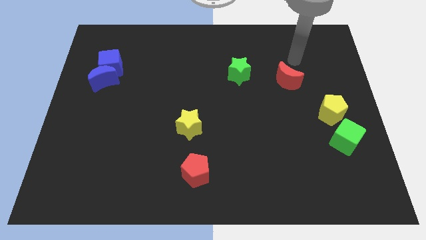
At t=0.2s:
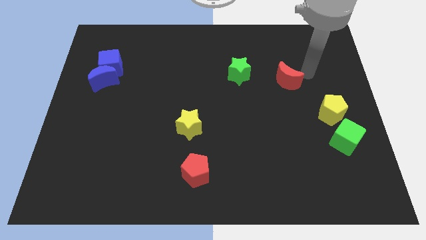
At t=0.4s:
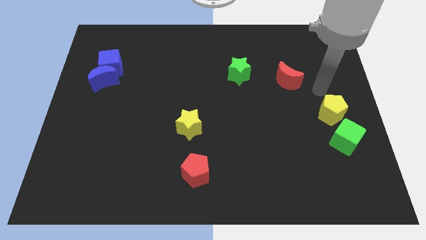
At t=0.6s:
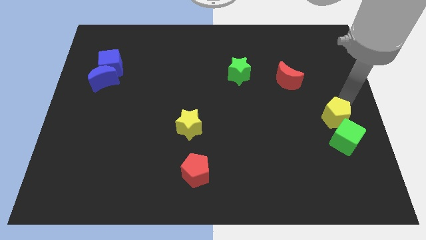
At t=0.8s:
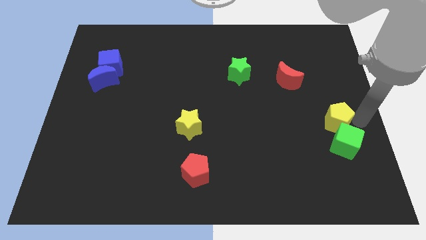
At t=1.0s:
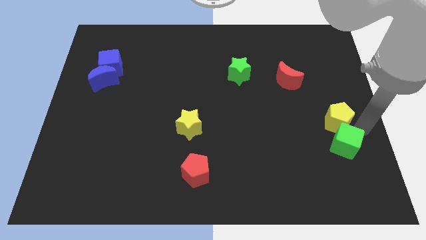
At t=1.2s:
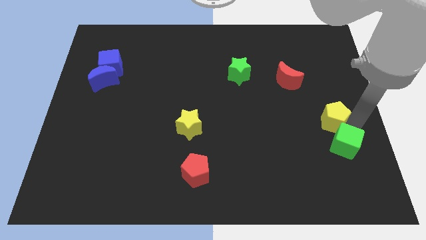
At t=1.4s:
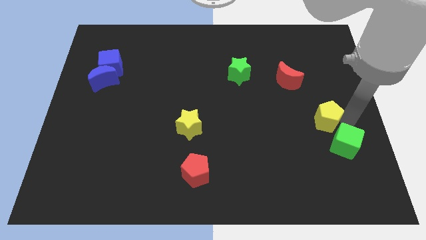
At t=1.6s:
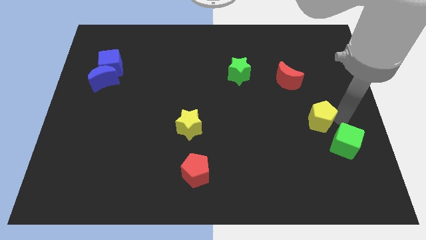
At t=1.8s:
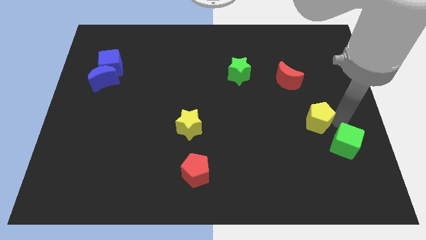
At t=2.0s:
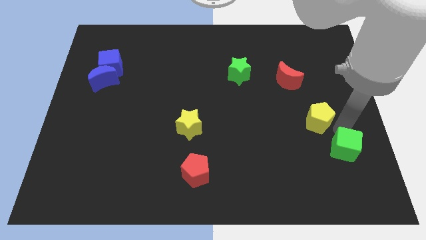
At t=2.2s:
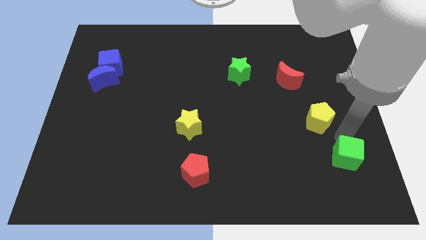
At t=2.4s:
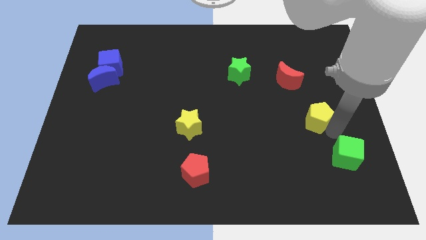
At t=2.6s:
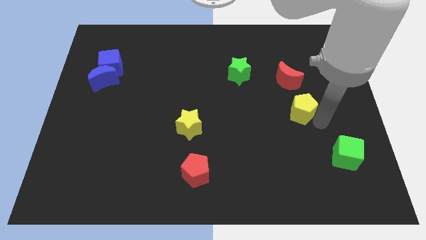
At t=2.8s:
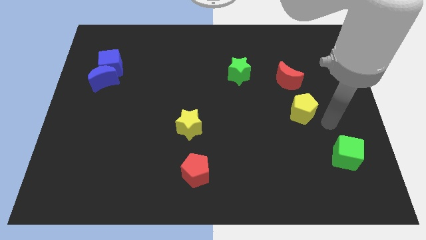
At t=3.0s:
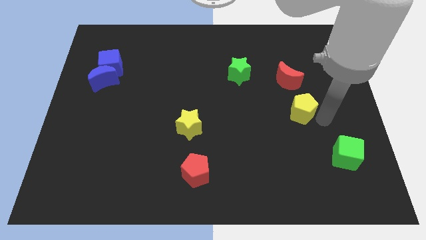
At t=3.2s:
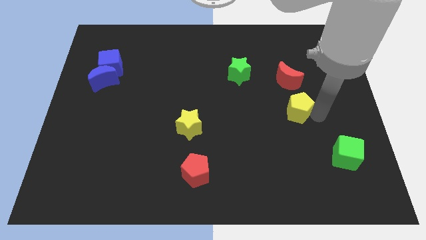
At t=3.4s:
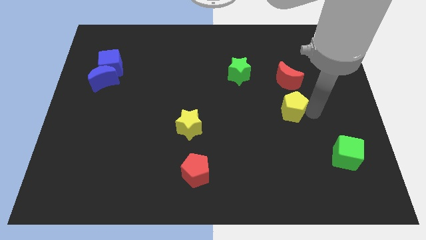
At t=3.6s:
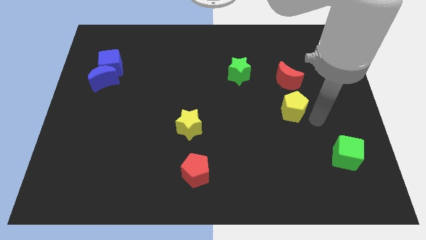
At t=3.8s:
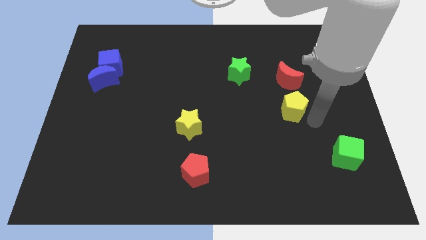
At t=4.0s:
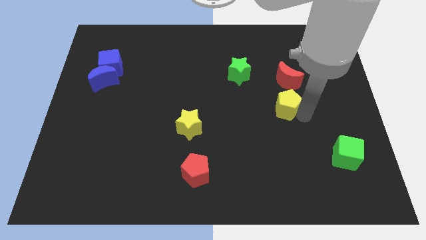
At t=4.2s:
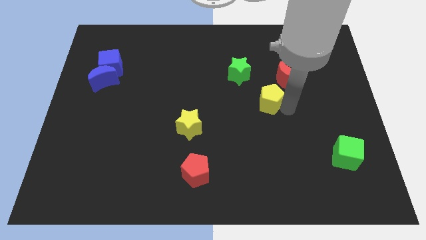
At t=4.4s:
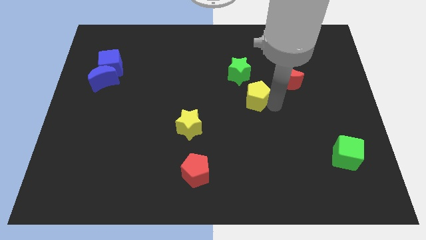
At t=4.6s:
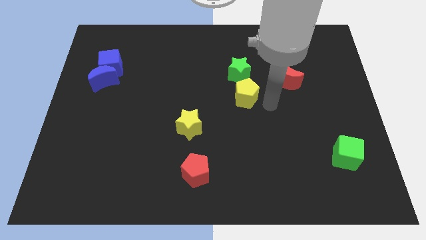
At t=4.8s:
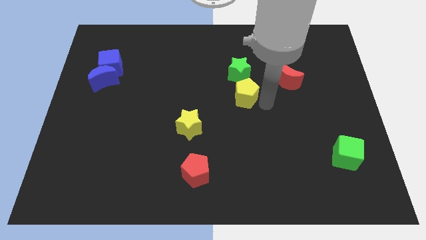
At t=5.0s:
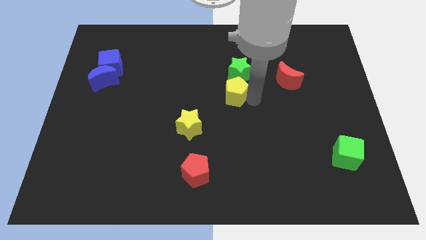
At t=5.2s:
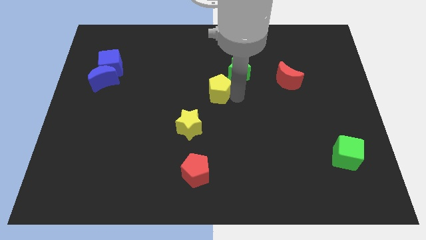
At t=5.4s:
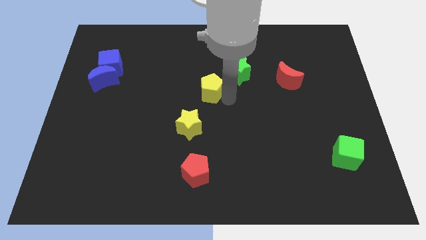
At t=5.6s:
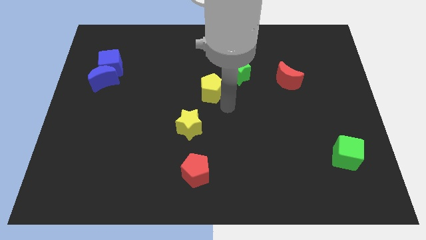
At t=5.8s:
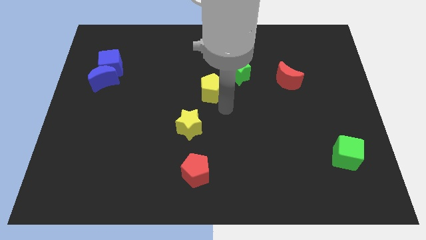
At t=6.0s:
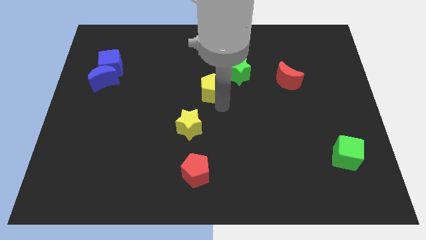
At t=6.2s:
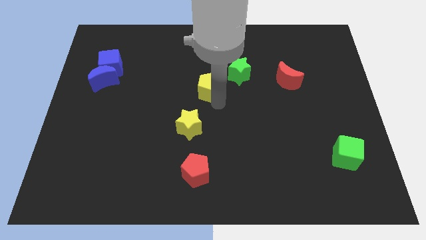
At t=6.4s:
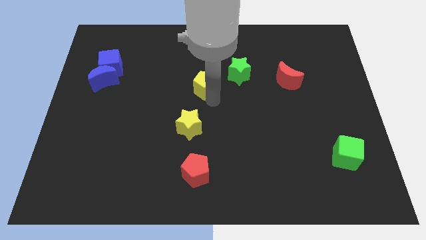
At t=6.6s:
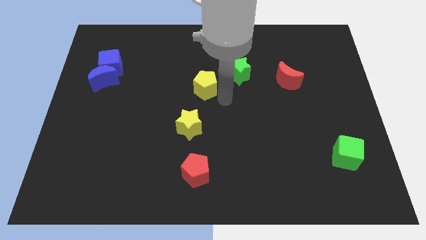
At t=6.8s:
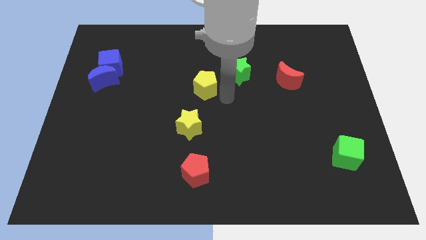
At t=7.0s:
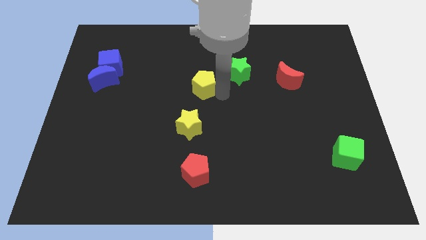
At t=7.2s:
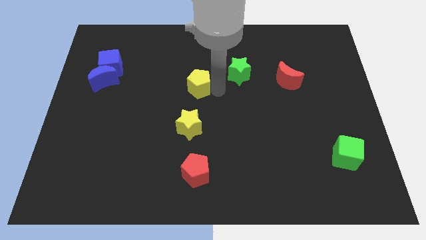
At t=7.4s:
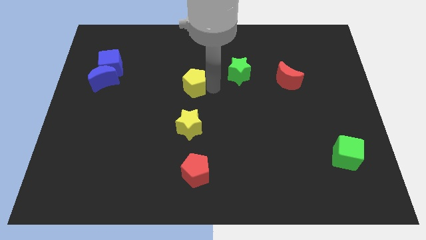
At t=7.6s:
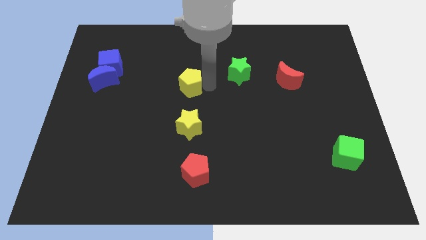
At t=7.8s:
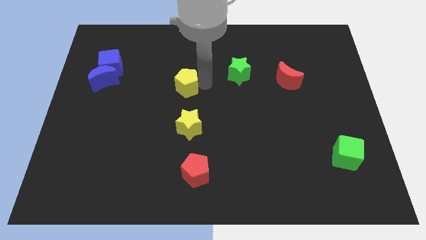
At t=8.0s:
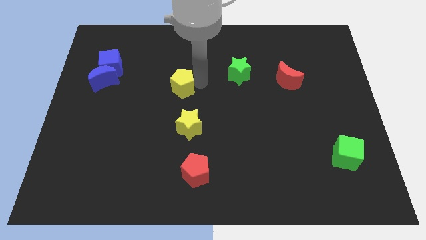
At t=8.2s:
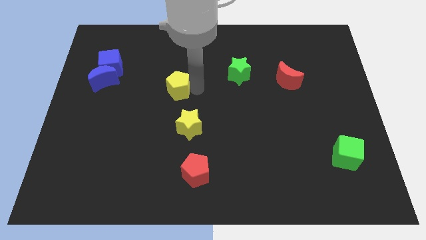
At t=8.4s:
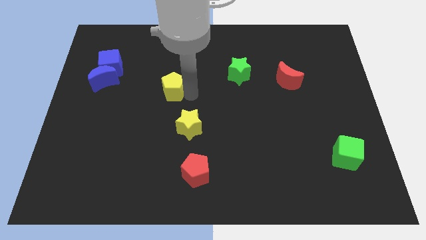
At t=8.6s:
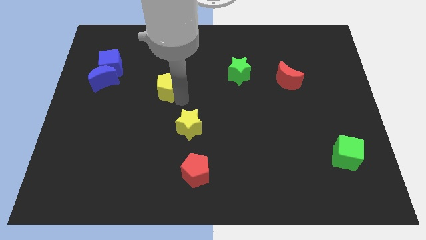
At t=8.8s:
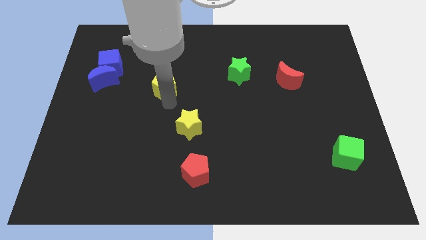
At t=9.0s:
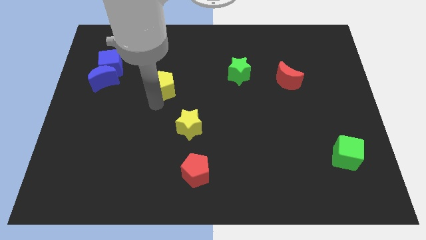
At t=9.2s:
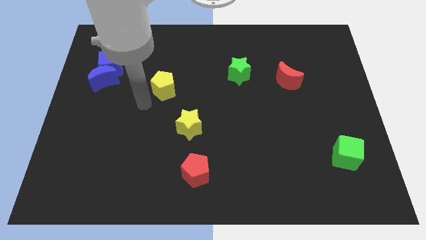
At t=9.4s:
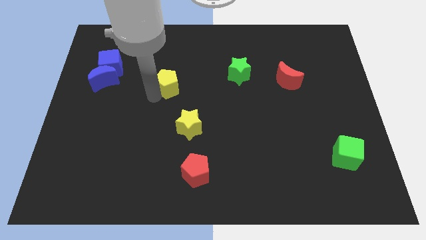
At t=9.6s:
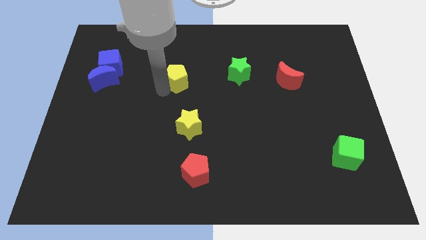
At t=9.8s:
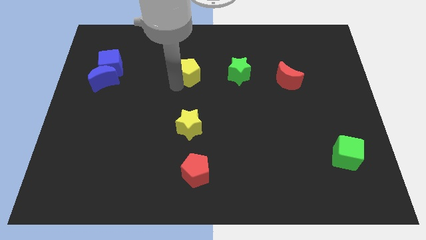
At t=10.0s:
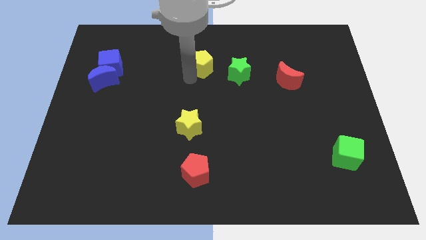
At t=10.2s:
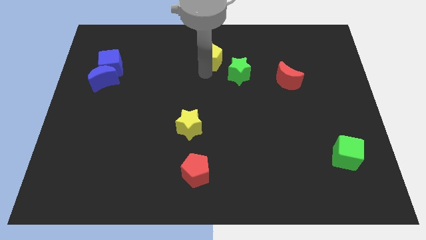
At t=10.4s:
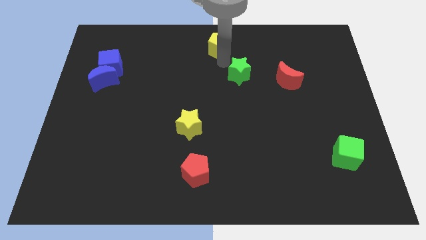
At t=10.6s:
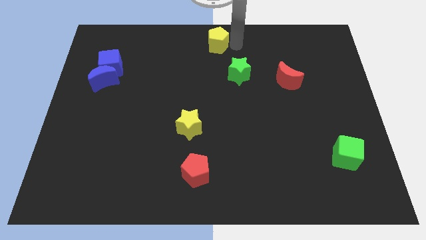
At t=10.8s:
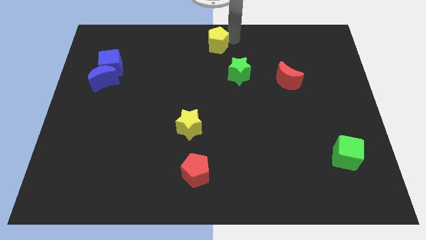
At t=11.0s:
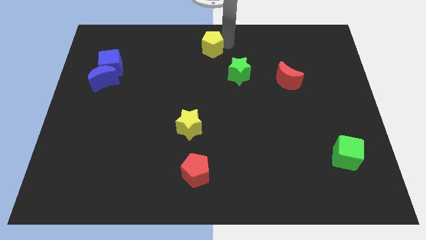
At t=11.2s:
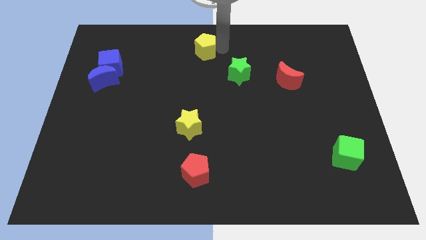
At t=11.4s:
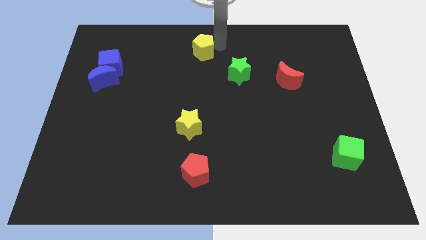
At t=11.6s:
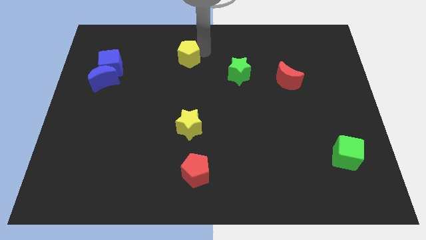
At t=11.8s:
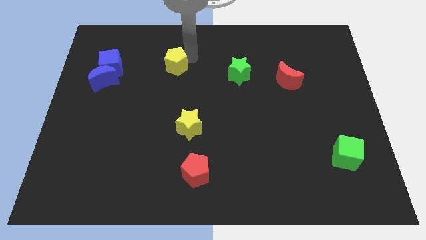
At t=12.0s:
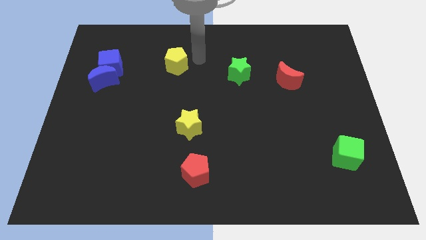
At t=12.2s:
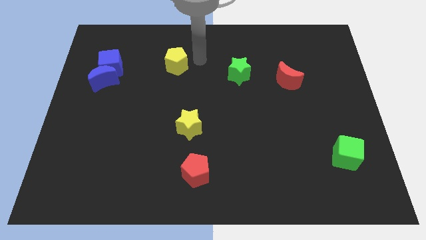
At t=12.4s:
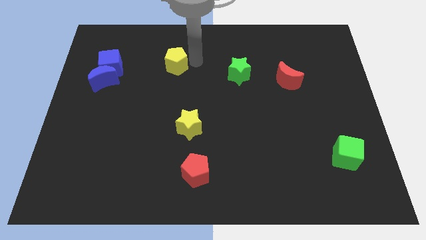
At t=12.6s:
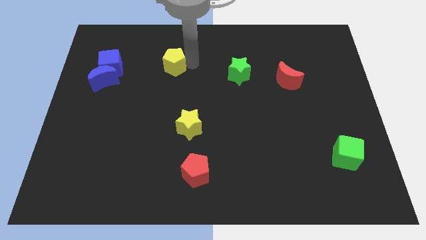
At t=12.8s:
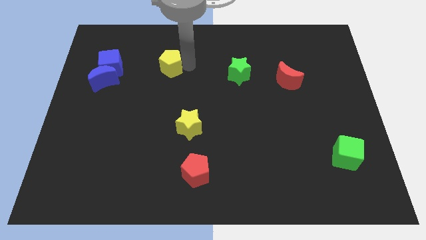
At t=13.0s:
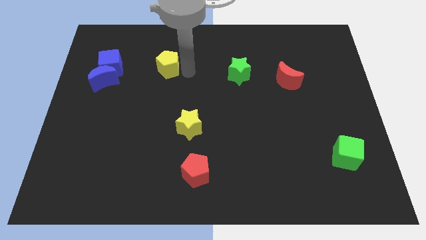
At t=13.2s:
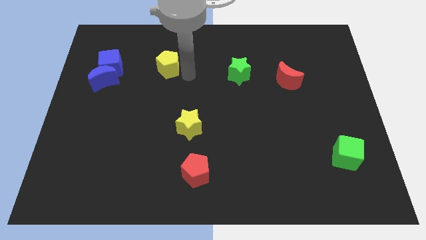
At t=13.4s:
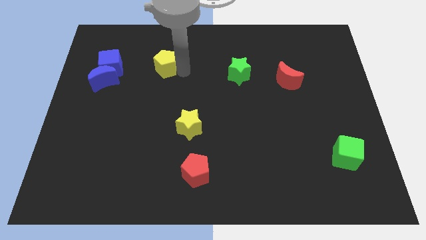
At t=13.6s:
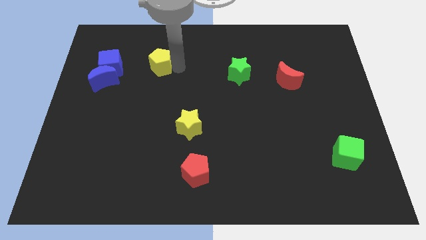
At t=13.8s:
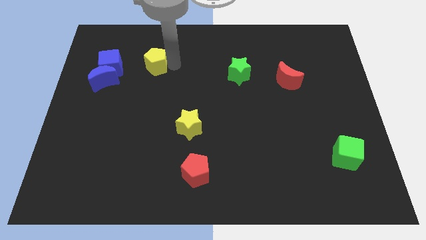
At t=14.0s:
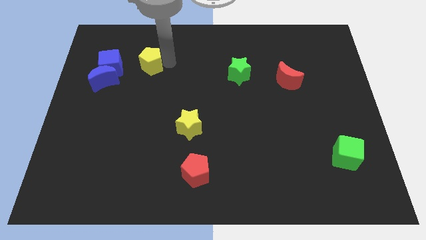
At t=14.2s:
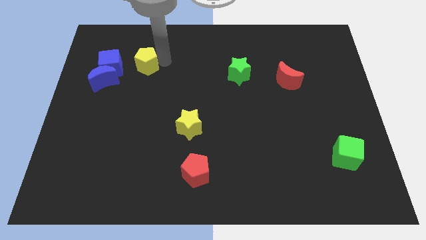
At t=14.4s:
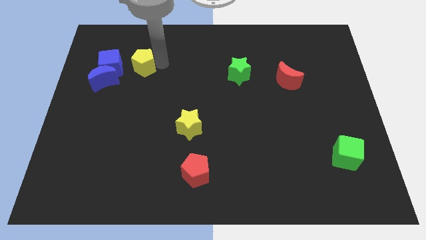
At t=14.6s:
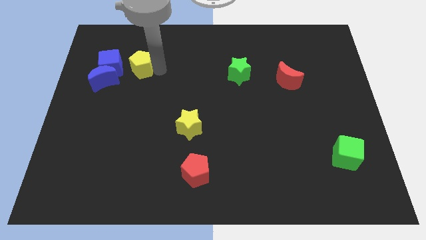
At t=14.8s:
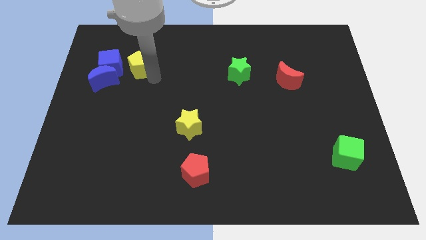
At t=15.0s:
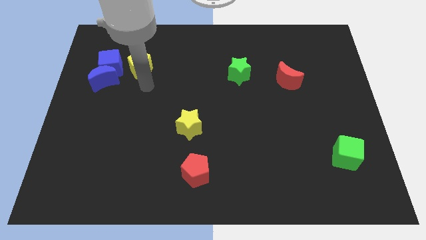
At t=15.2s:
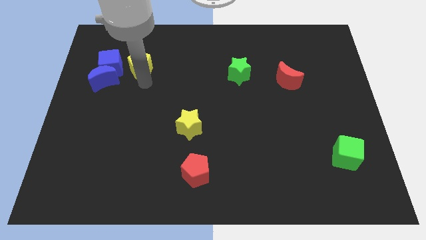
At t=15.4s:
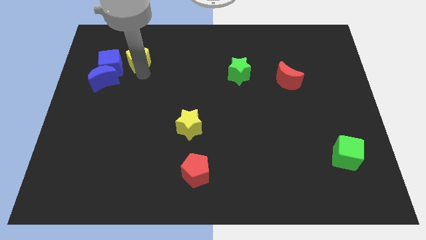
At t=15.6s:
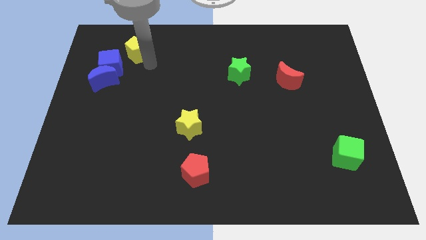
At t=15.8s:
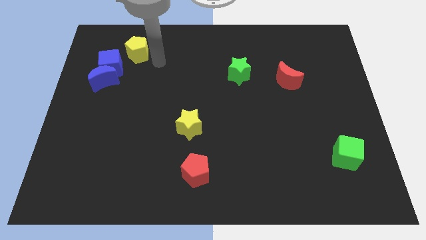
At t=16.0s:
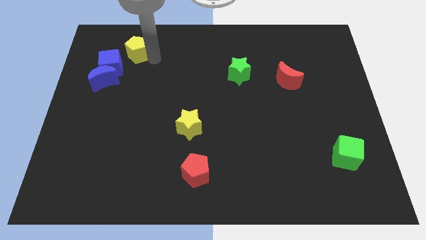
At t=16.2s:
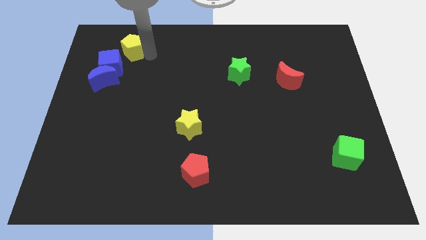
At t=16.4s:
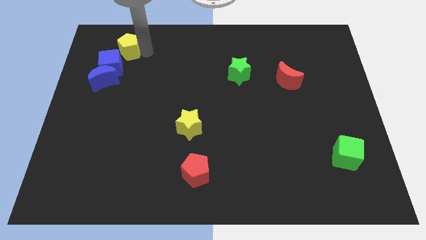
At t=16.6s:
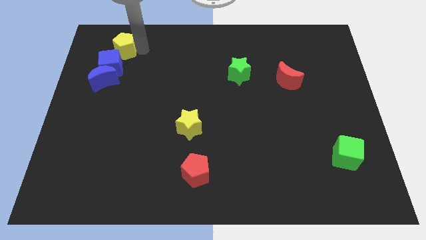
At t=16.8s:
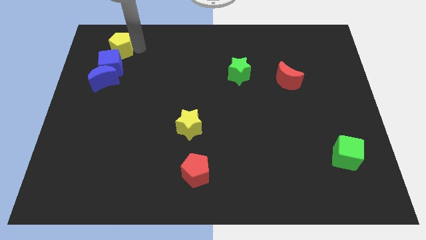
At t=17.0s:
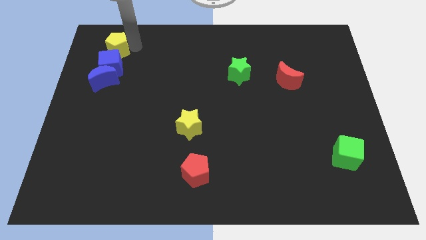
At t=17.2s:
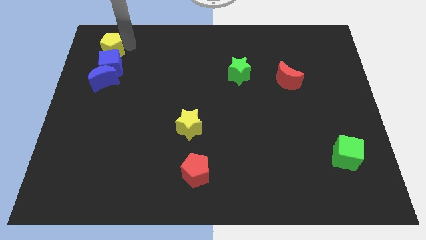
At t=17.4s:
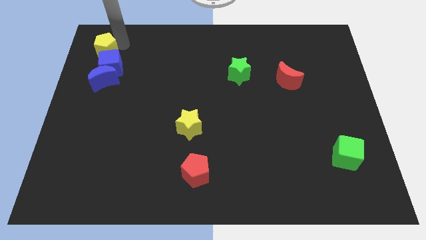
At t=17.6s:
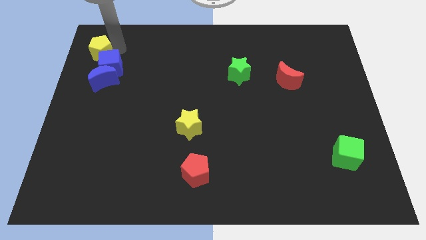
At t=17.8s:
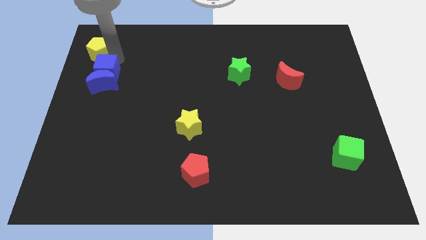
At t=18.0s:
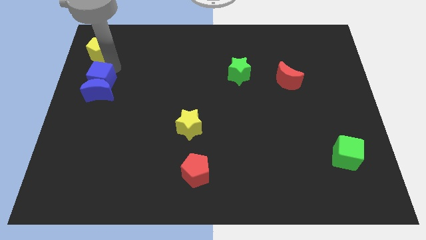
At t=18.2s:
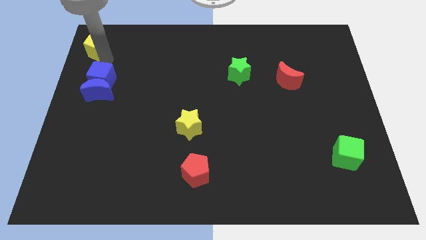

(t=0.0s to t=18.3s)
push the yellow pentagon to the top left corner
